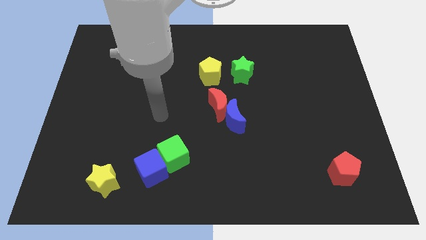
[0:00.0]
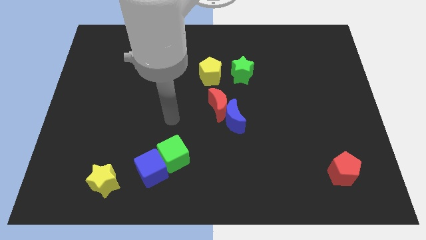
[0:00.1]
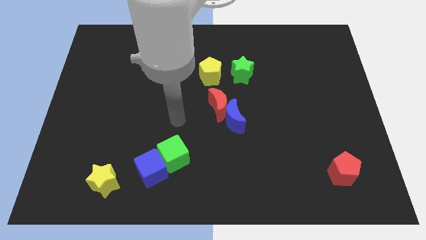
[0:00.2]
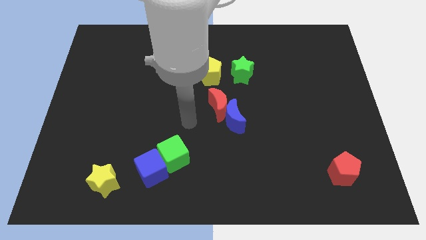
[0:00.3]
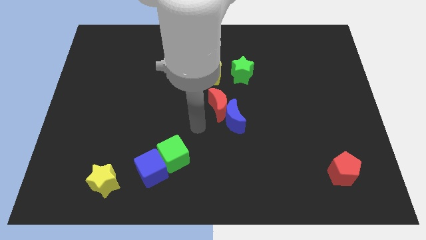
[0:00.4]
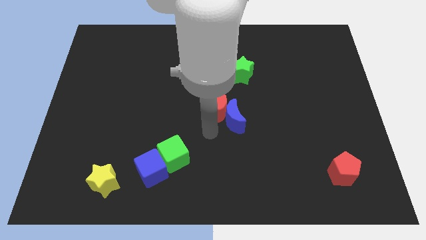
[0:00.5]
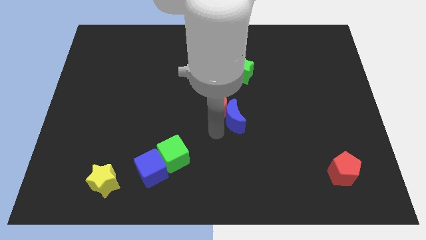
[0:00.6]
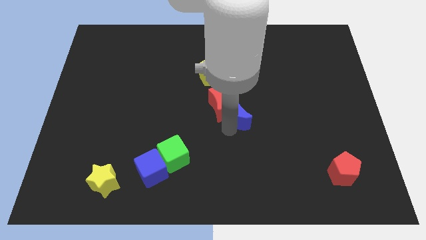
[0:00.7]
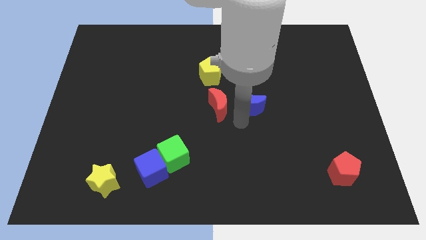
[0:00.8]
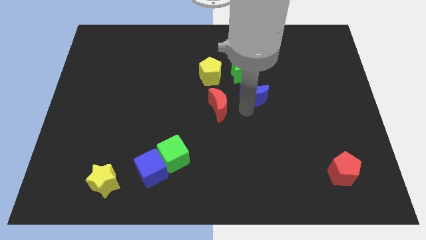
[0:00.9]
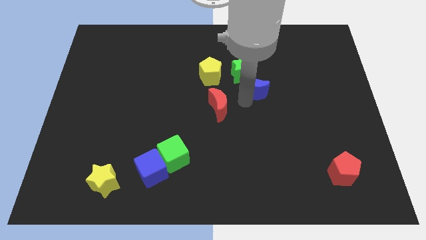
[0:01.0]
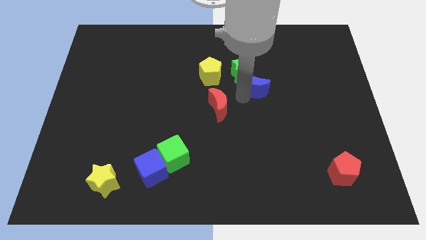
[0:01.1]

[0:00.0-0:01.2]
pull the red moon apart from the blue moon

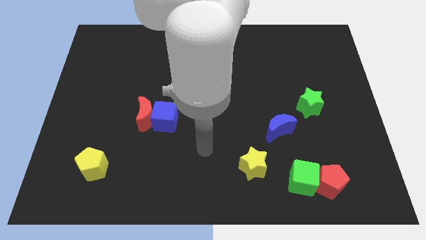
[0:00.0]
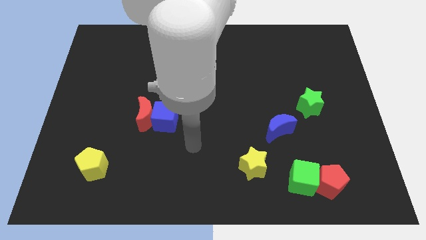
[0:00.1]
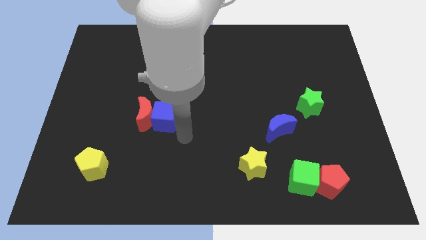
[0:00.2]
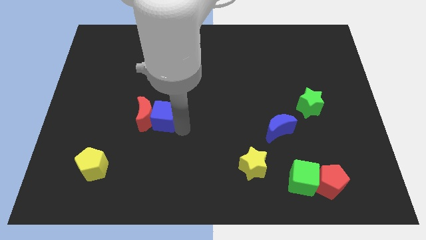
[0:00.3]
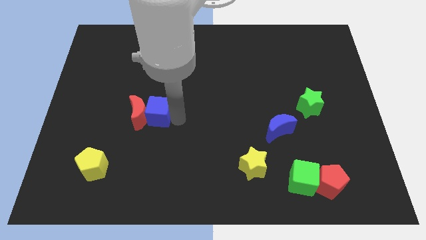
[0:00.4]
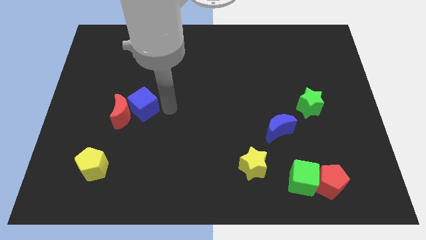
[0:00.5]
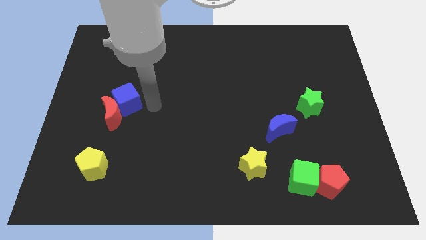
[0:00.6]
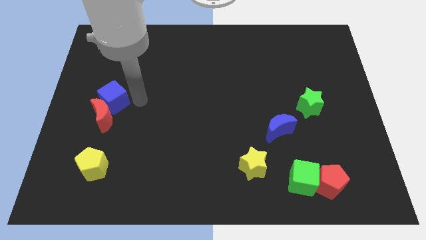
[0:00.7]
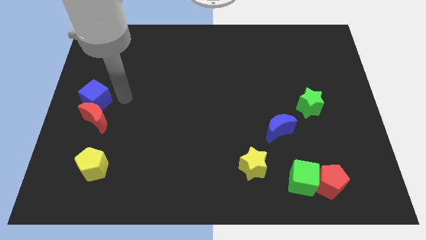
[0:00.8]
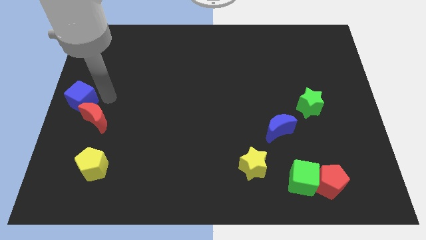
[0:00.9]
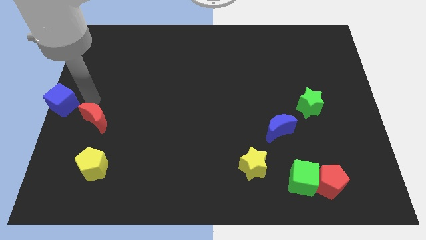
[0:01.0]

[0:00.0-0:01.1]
pull the red moon apart from the blue cube

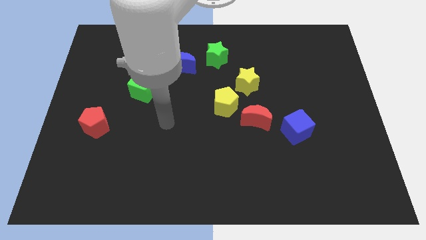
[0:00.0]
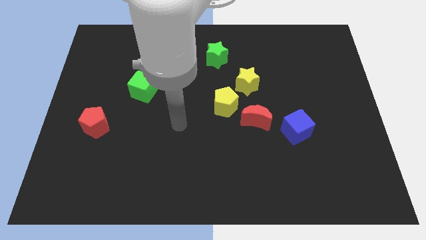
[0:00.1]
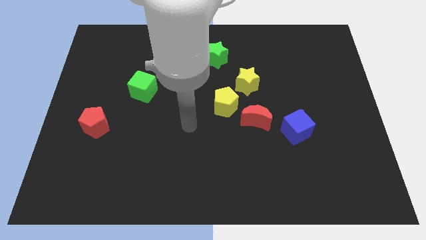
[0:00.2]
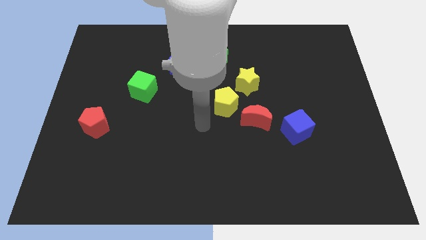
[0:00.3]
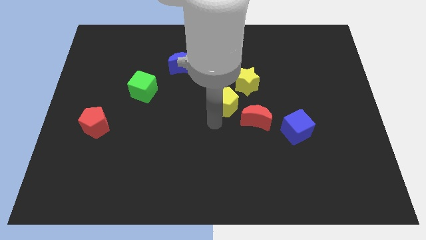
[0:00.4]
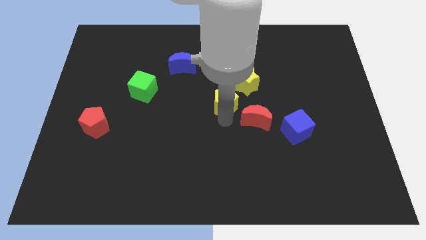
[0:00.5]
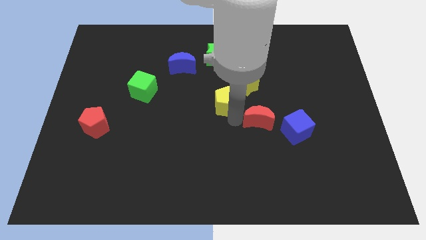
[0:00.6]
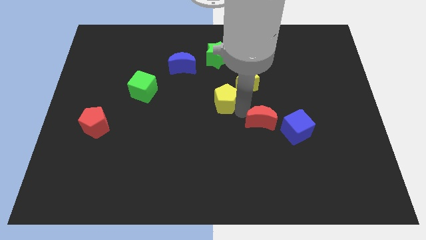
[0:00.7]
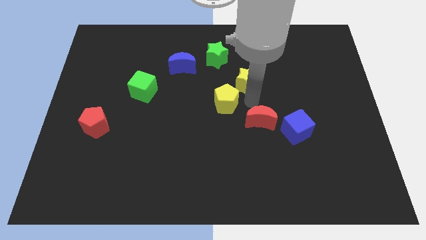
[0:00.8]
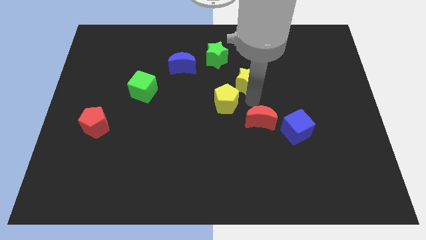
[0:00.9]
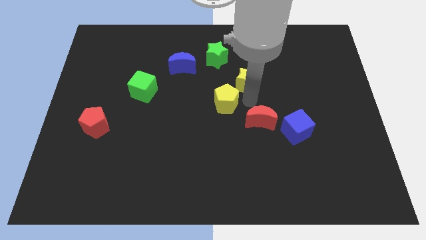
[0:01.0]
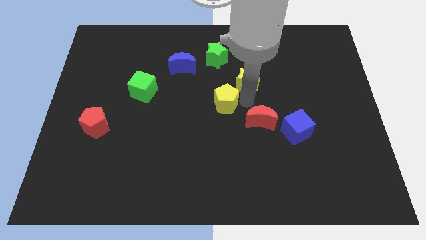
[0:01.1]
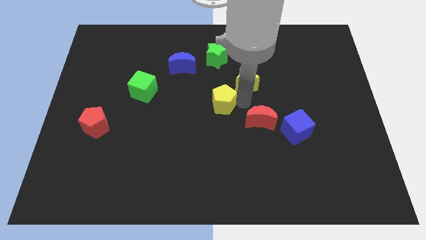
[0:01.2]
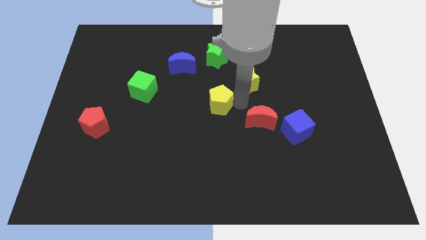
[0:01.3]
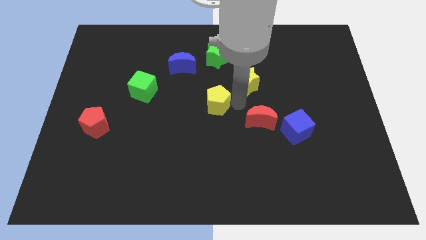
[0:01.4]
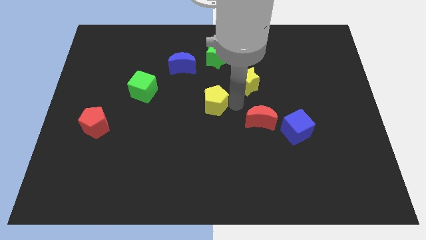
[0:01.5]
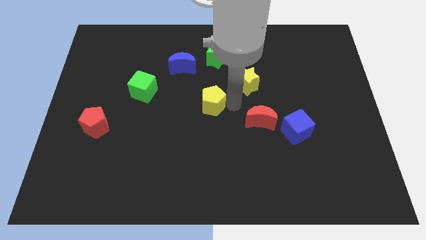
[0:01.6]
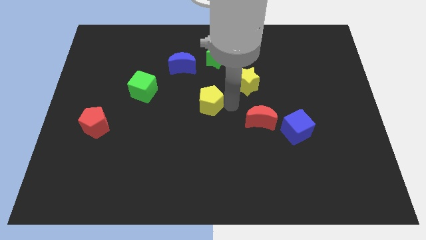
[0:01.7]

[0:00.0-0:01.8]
move the yellow pentagon away from the red moon and yellow star

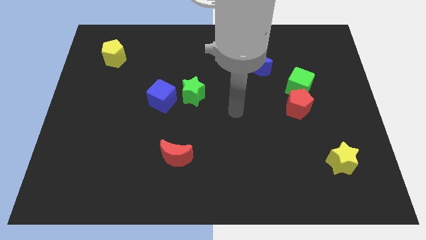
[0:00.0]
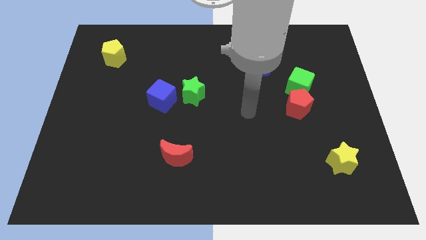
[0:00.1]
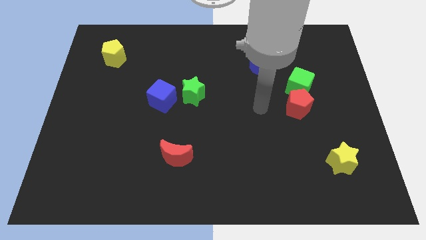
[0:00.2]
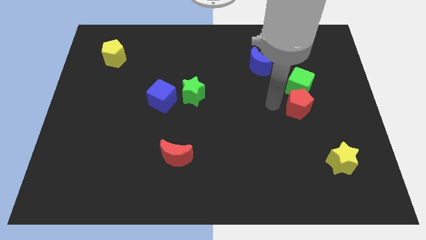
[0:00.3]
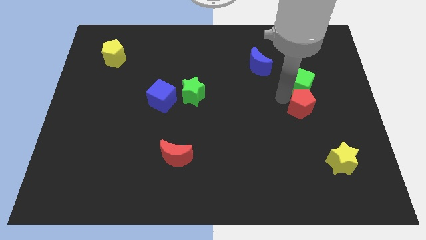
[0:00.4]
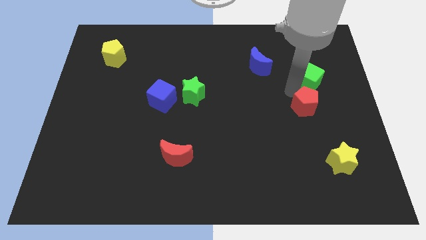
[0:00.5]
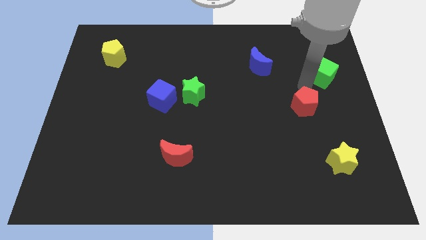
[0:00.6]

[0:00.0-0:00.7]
move the red pentagon away from the green cube

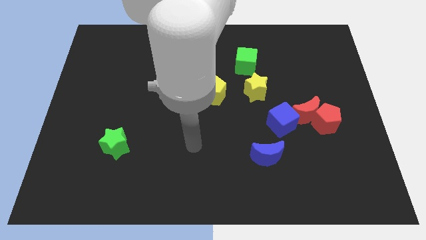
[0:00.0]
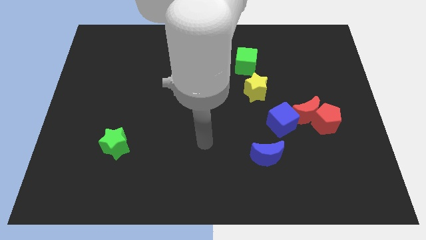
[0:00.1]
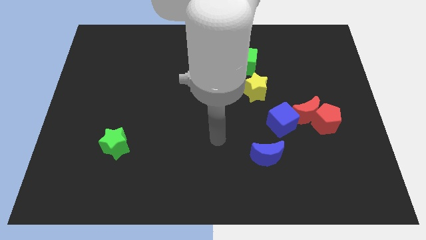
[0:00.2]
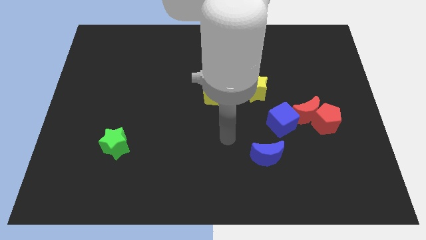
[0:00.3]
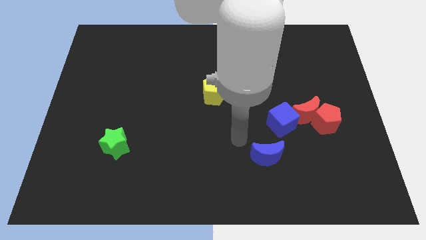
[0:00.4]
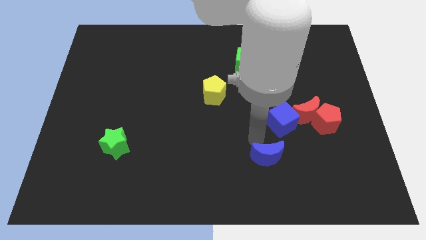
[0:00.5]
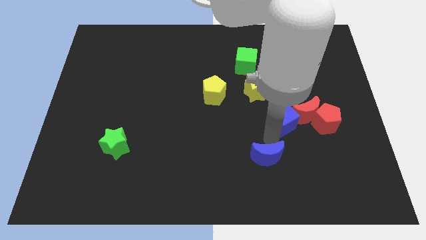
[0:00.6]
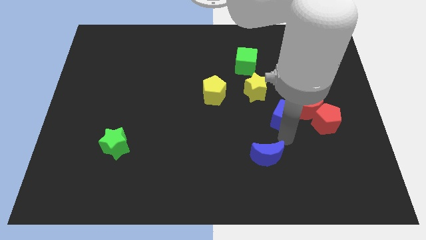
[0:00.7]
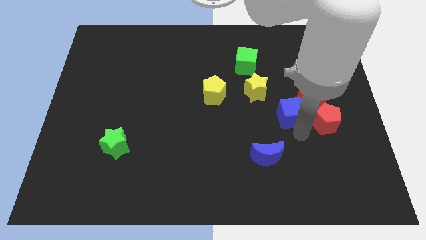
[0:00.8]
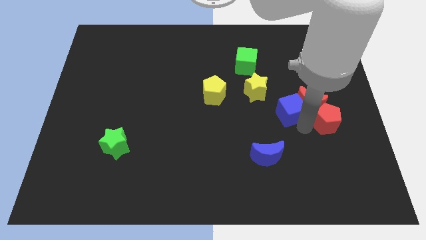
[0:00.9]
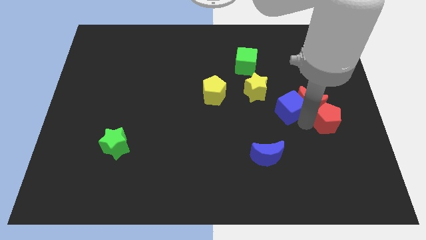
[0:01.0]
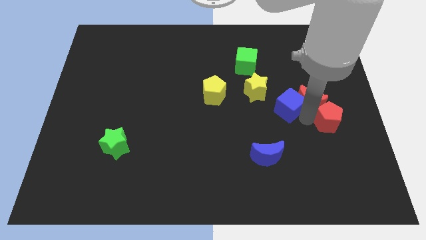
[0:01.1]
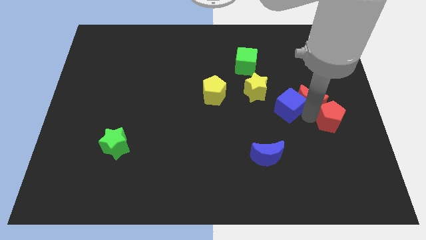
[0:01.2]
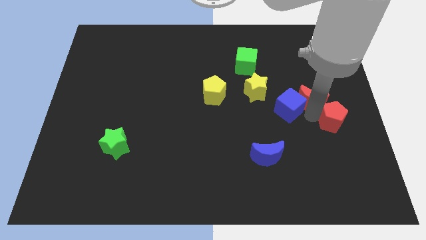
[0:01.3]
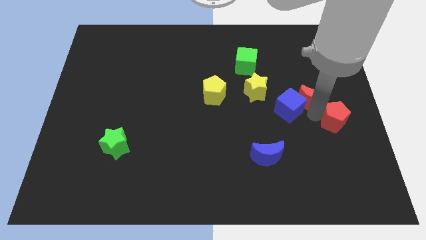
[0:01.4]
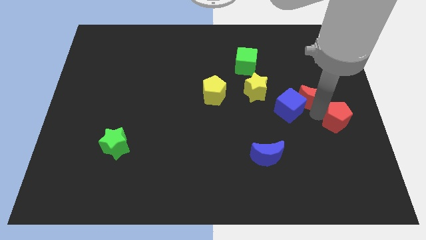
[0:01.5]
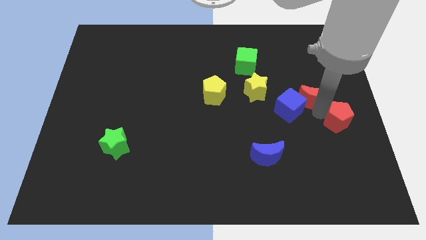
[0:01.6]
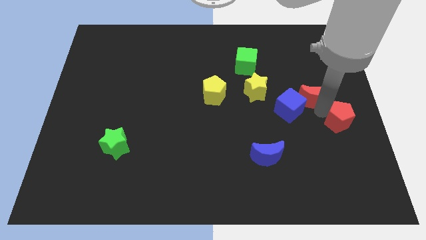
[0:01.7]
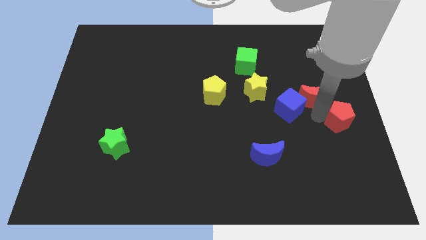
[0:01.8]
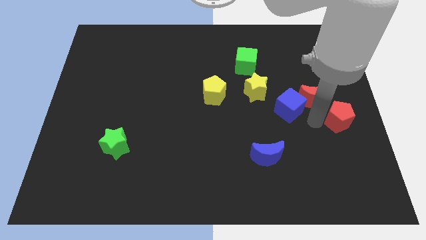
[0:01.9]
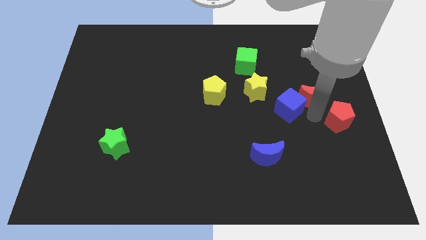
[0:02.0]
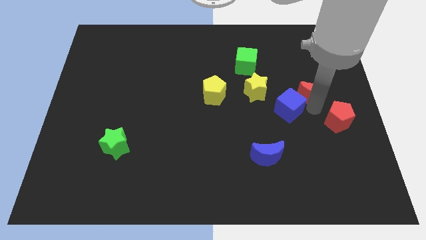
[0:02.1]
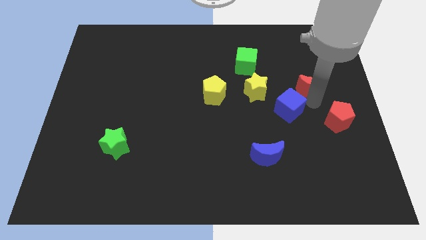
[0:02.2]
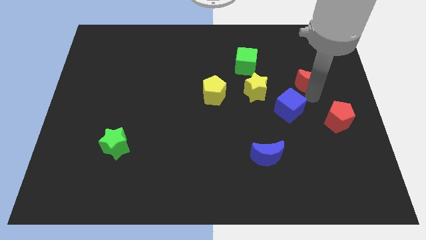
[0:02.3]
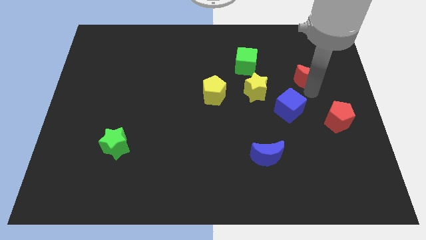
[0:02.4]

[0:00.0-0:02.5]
move the red moon away from the red pentagon and blue cube

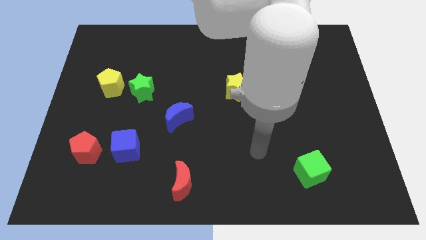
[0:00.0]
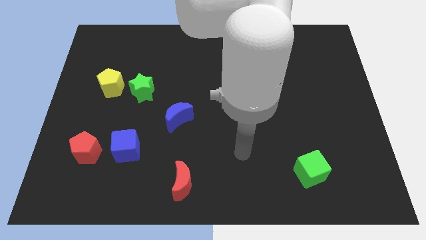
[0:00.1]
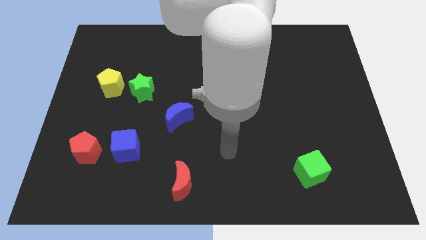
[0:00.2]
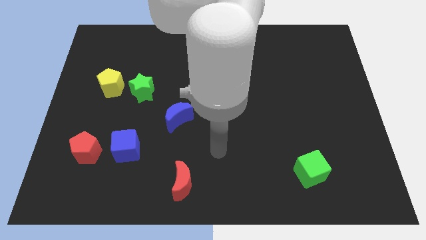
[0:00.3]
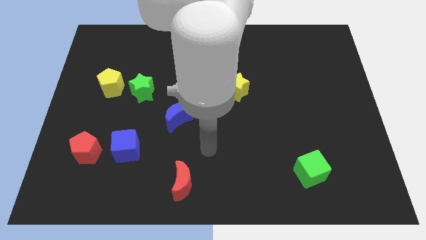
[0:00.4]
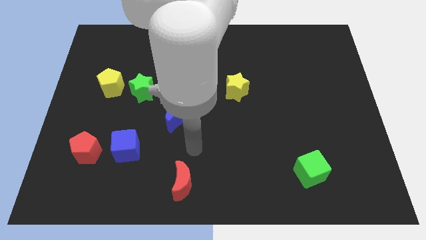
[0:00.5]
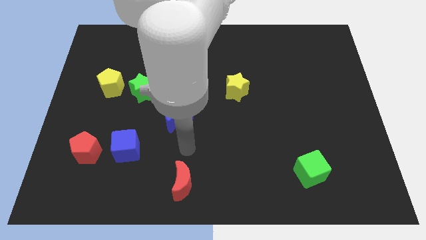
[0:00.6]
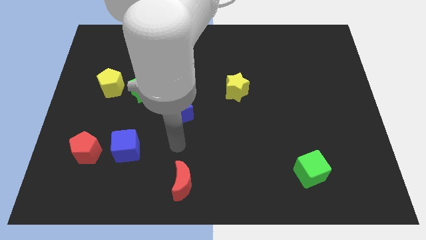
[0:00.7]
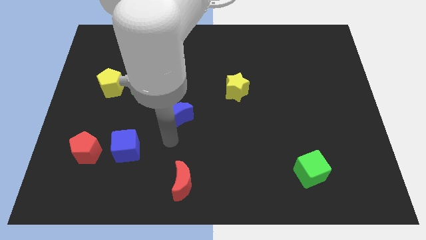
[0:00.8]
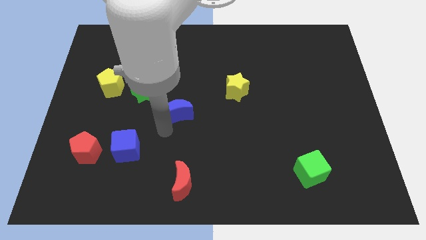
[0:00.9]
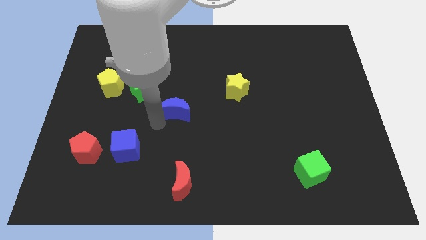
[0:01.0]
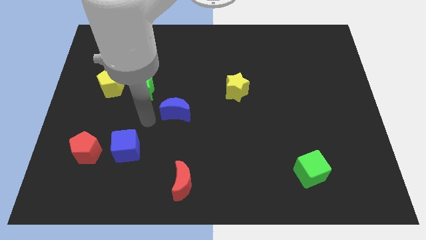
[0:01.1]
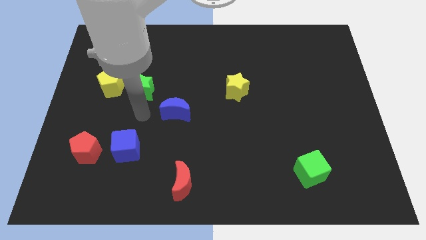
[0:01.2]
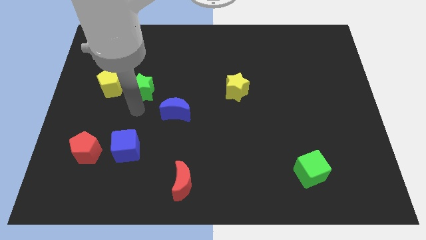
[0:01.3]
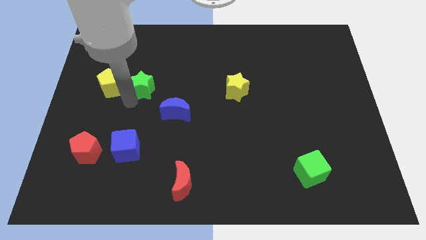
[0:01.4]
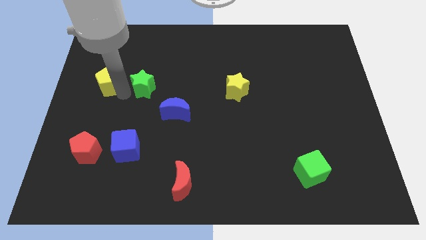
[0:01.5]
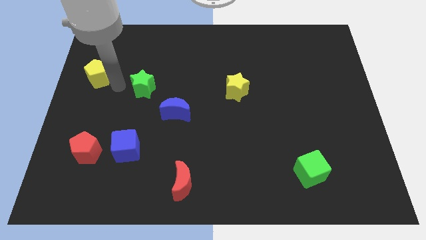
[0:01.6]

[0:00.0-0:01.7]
move the green star away from the yellow pentagon

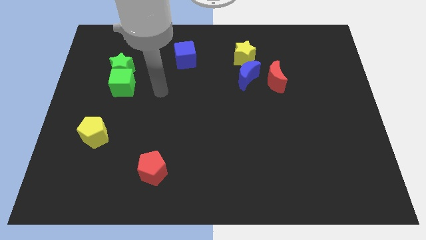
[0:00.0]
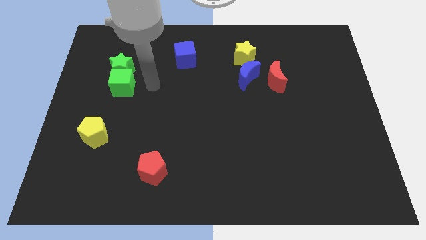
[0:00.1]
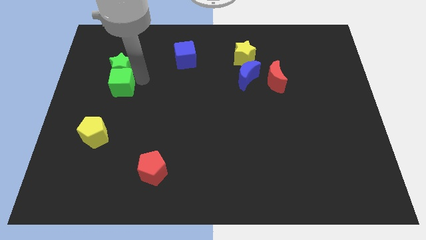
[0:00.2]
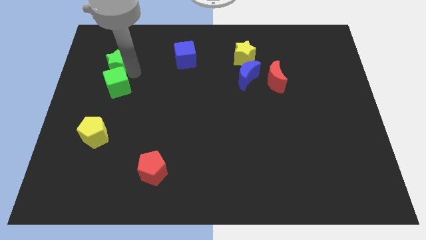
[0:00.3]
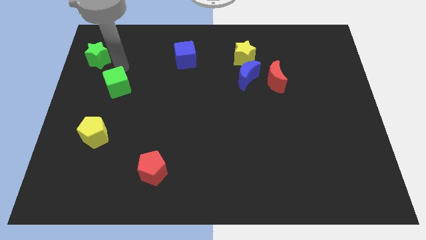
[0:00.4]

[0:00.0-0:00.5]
move the green cube away from the green star

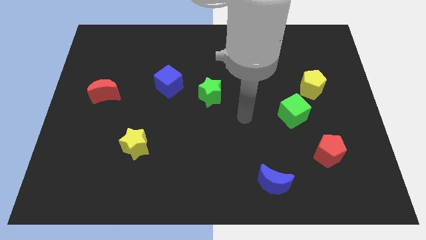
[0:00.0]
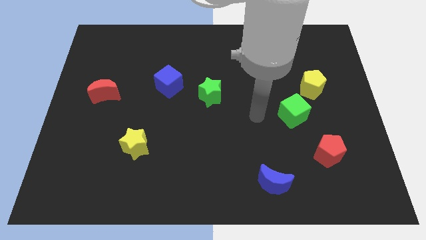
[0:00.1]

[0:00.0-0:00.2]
pull the green cube apart from the yellow pentagon
